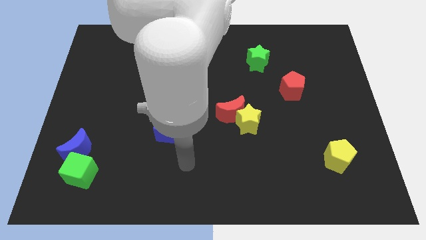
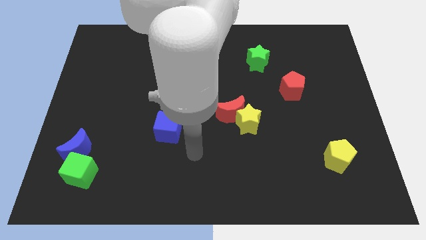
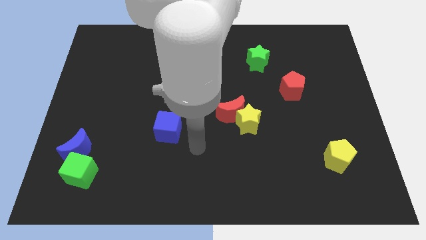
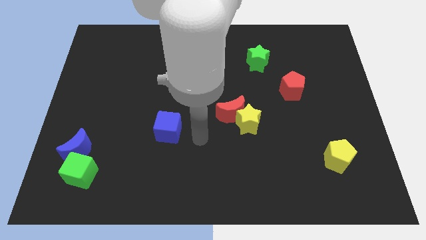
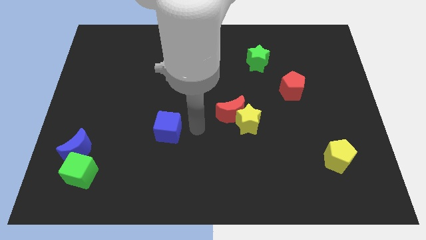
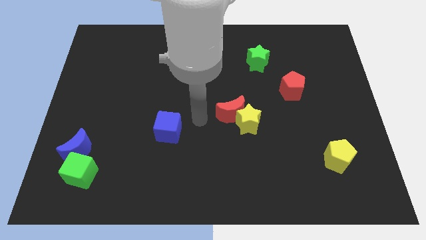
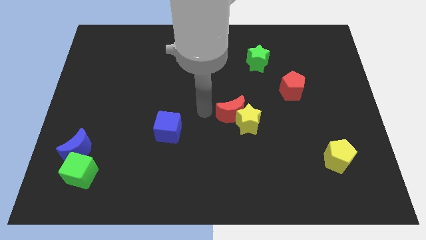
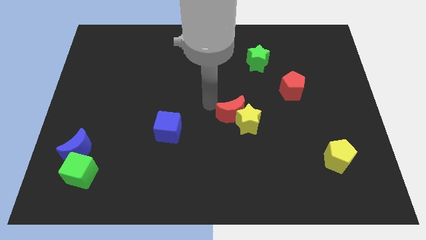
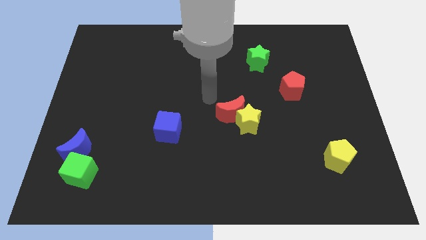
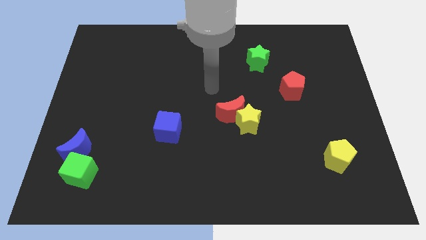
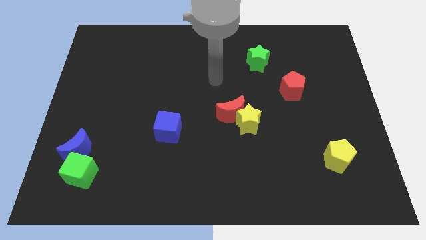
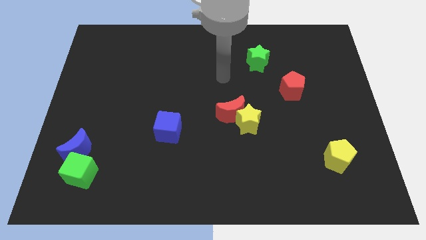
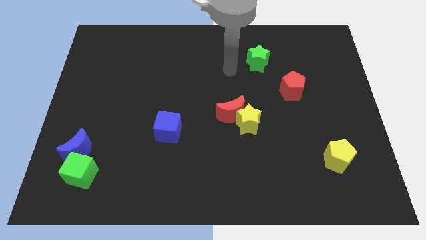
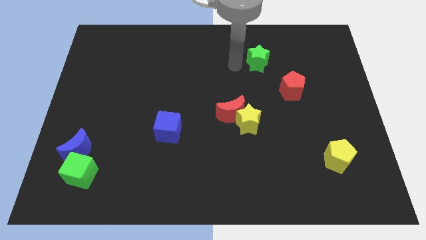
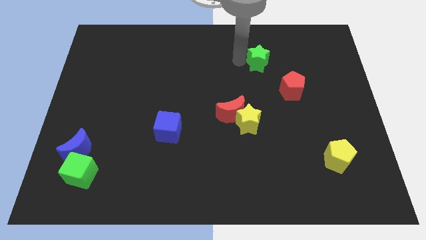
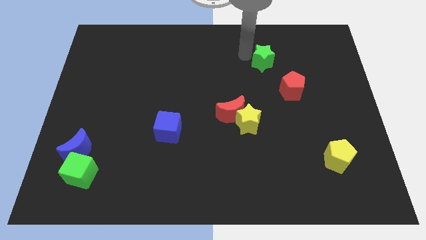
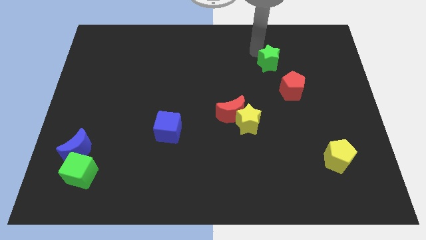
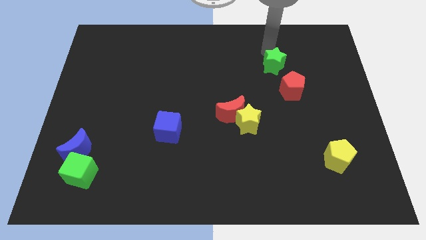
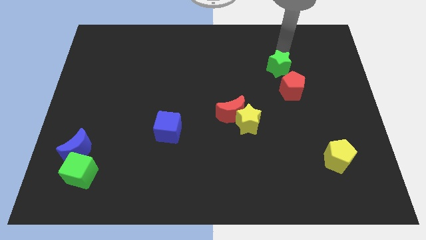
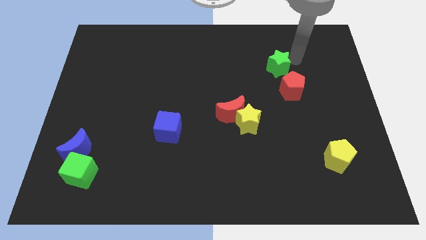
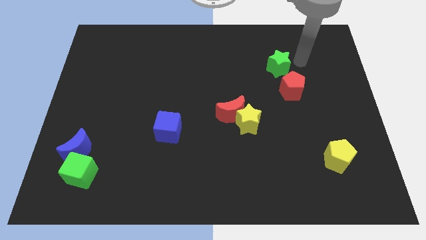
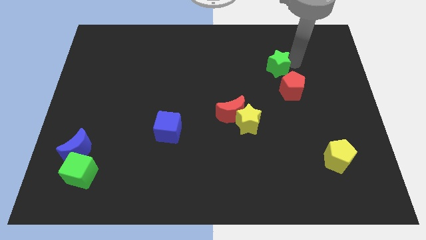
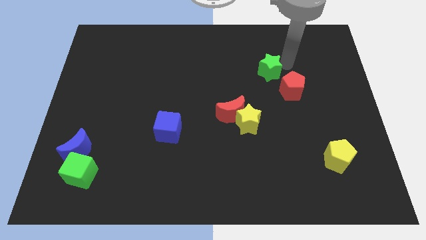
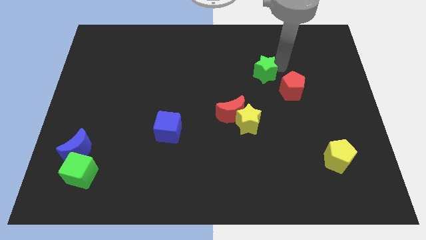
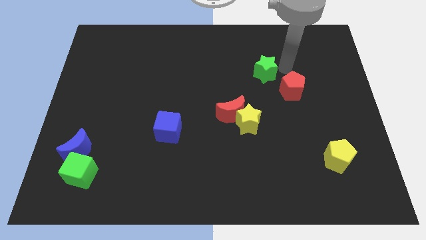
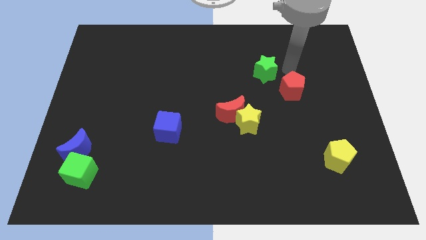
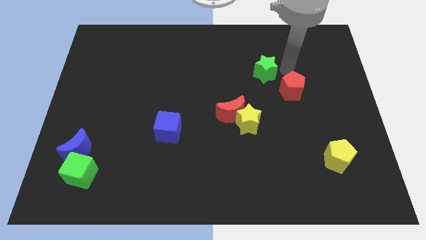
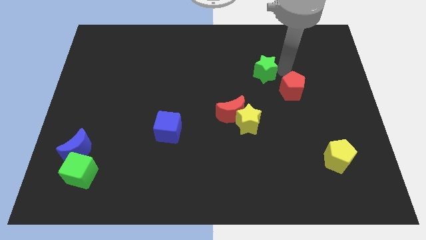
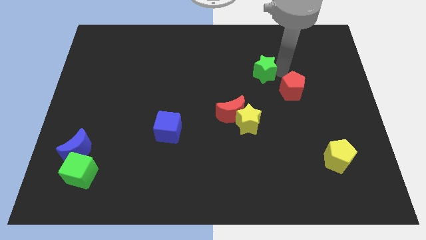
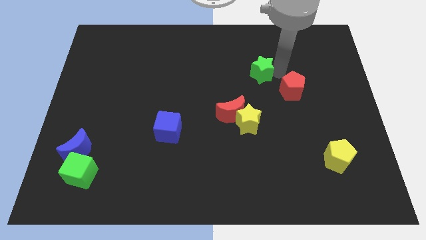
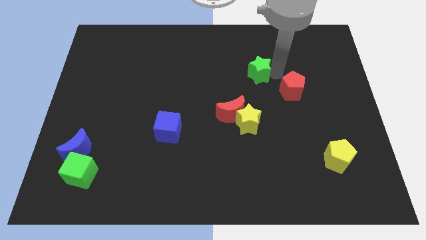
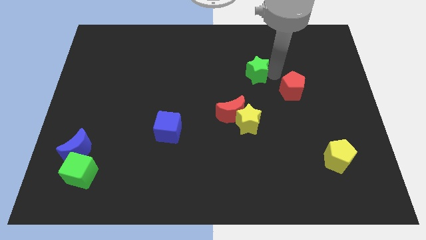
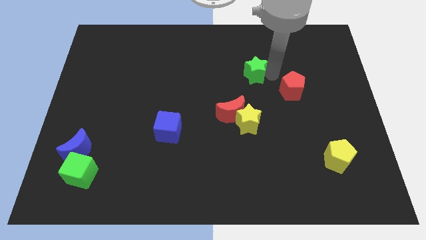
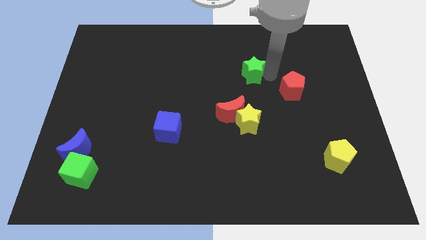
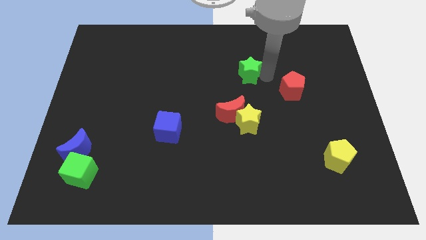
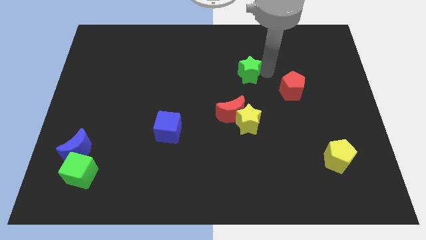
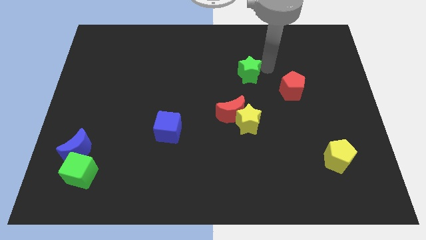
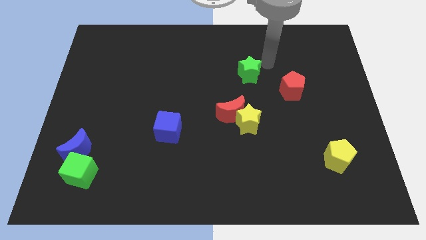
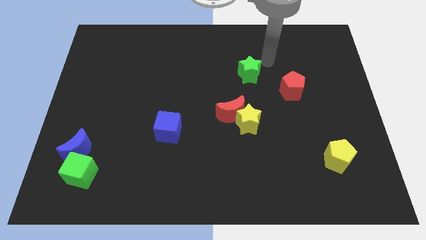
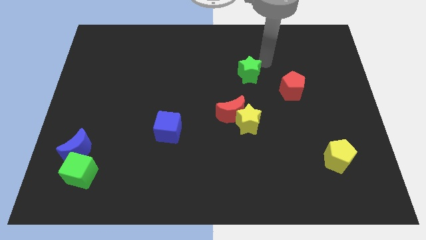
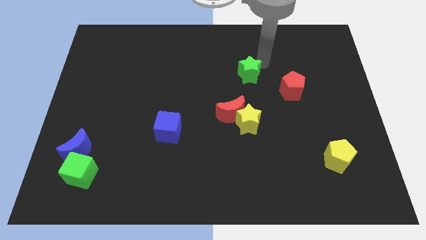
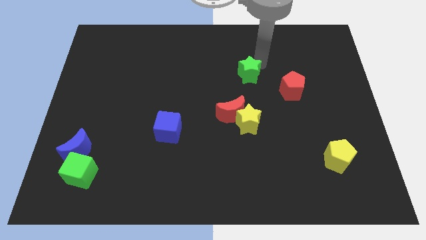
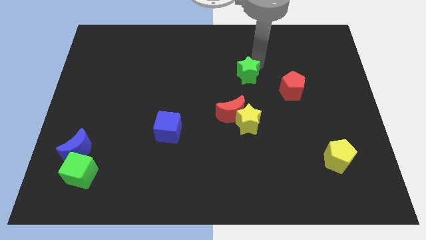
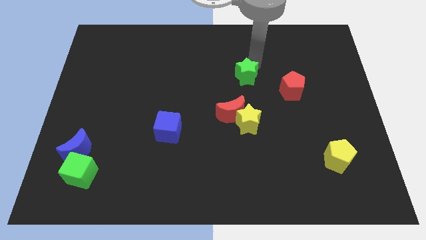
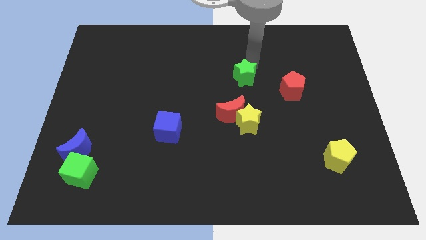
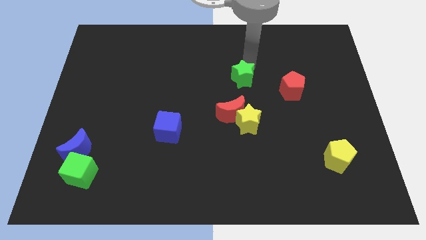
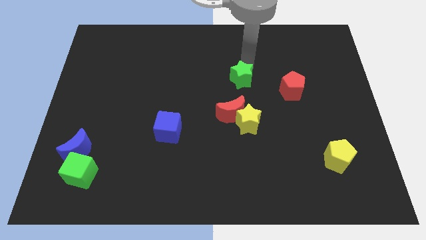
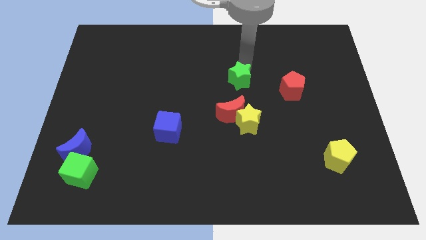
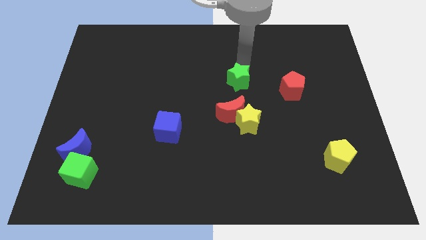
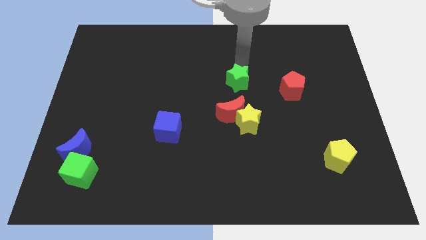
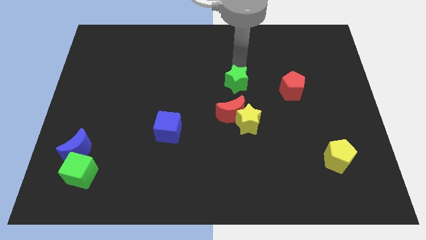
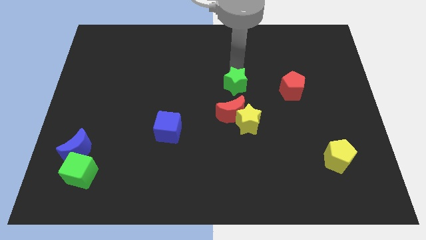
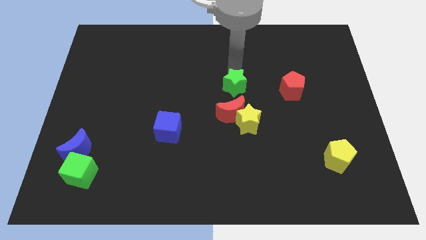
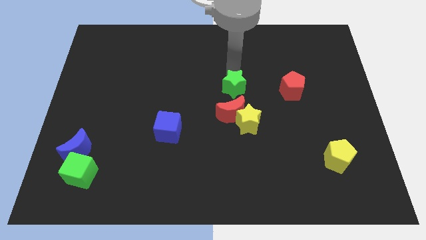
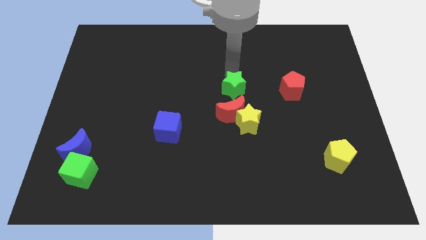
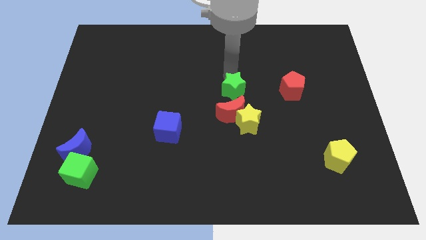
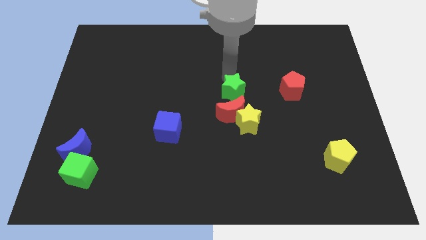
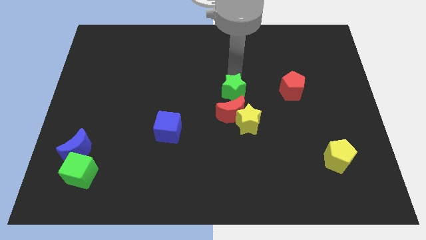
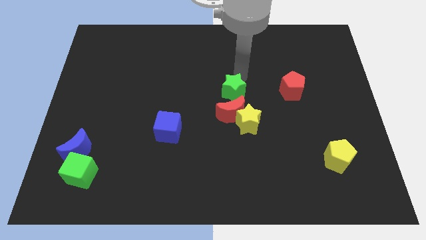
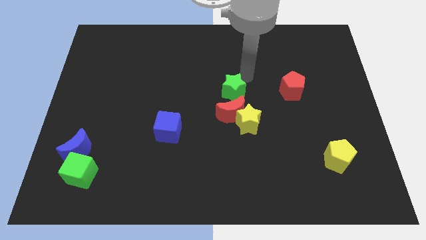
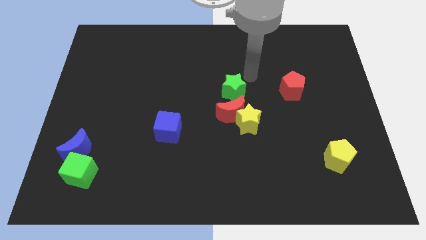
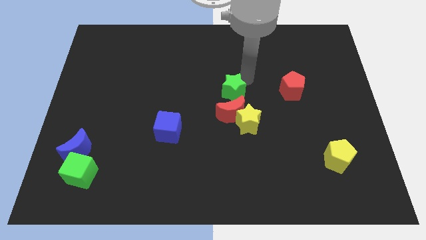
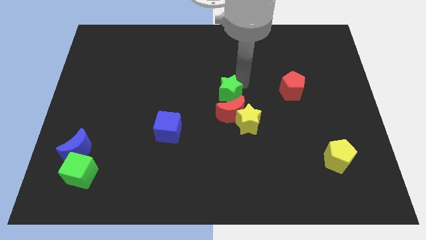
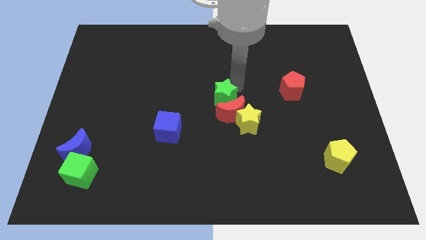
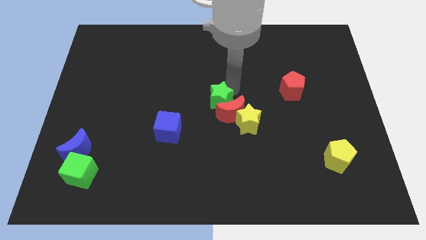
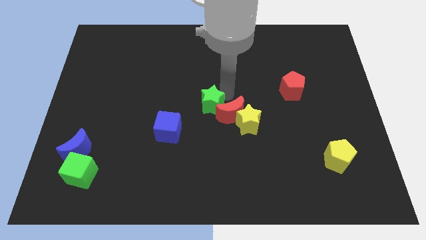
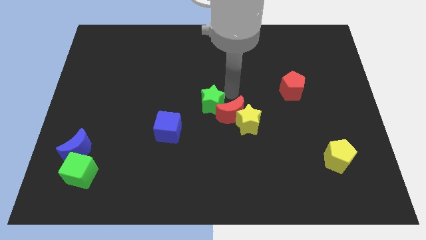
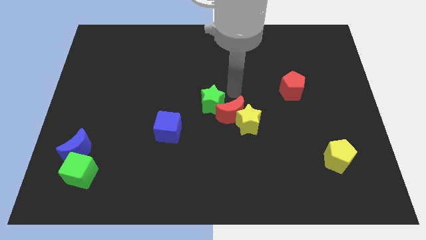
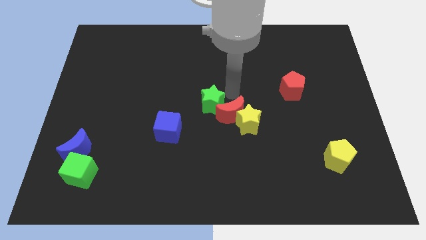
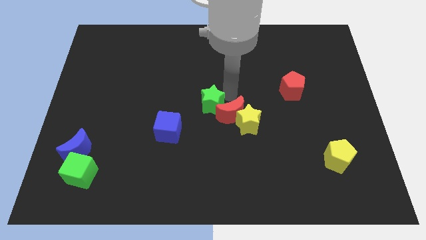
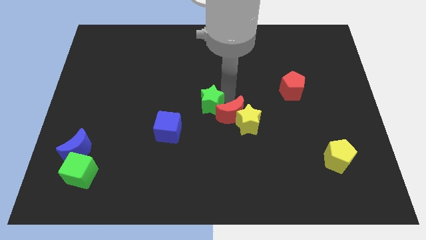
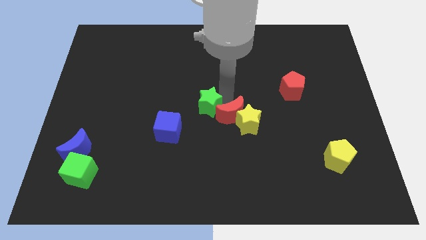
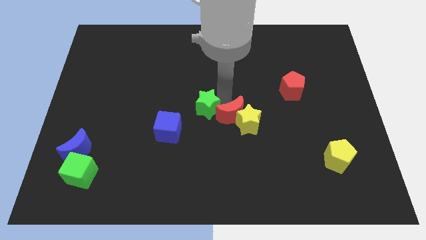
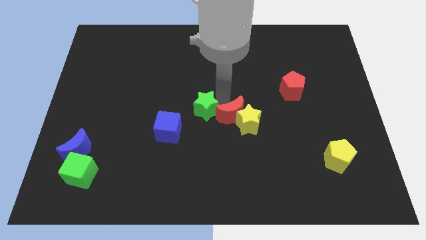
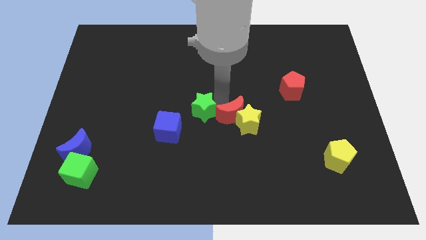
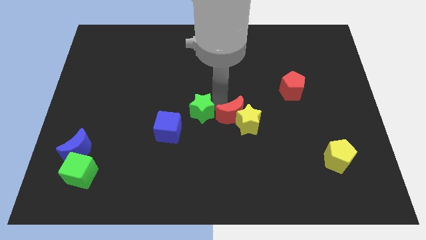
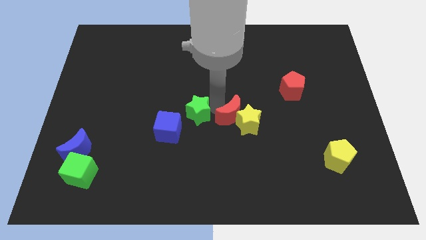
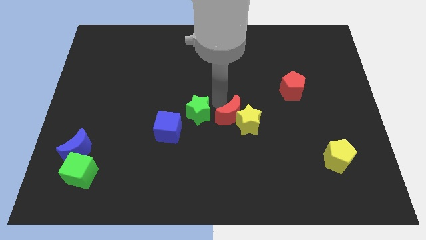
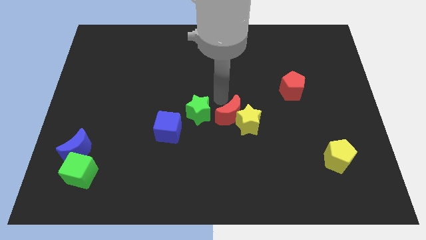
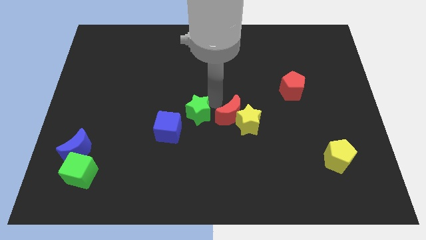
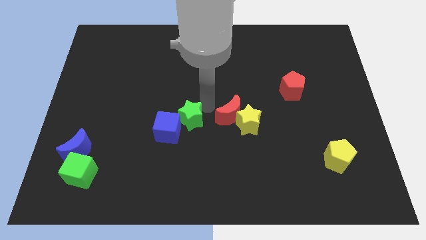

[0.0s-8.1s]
move the green star next to the blue cube
